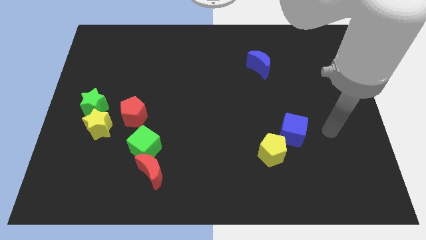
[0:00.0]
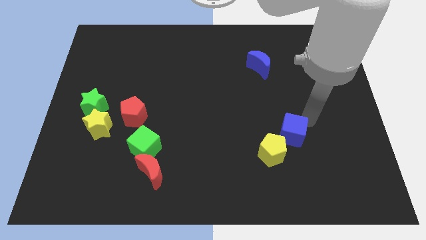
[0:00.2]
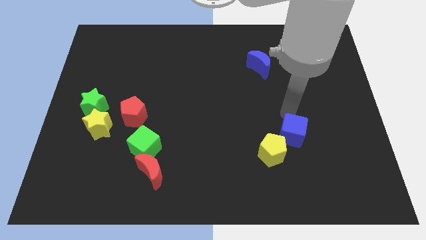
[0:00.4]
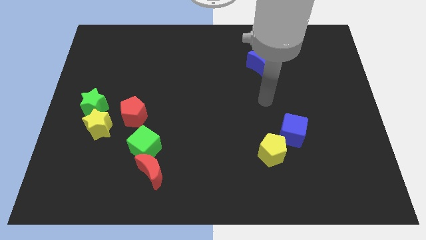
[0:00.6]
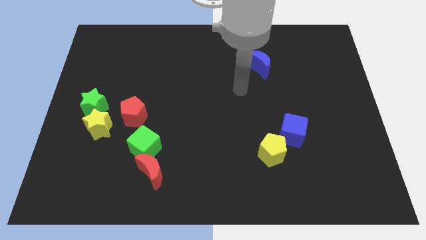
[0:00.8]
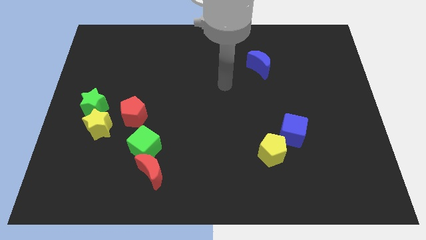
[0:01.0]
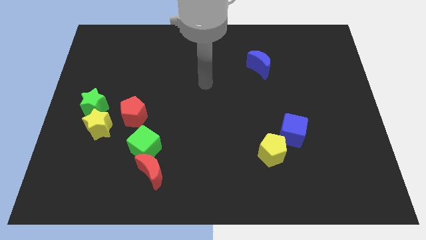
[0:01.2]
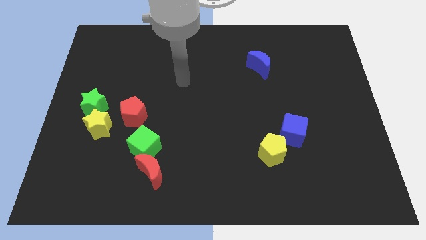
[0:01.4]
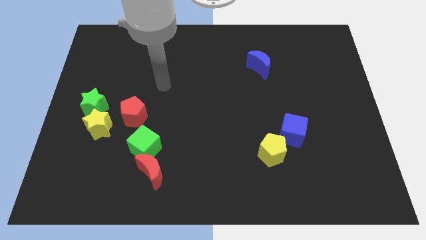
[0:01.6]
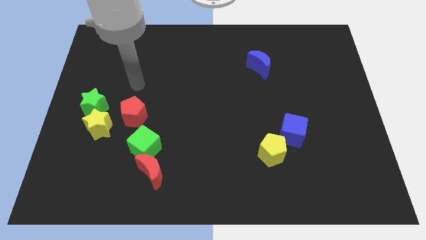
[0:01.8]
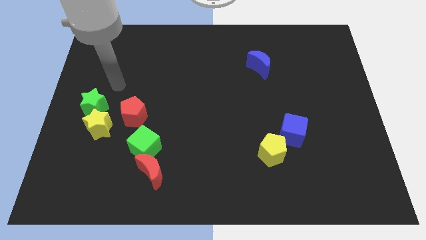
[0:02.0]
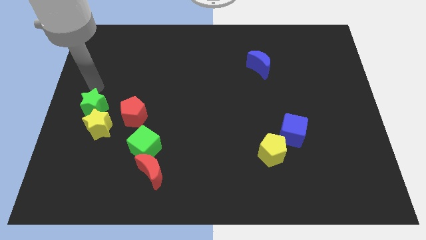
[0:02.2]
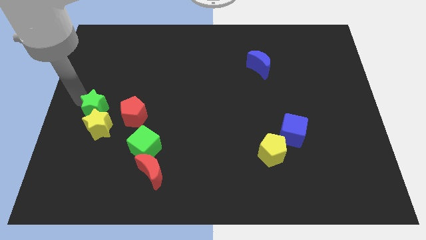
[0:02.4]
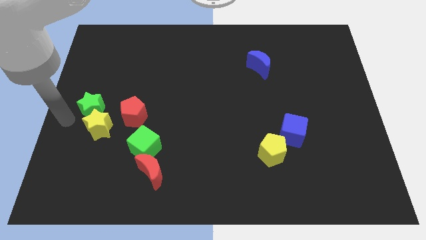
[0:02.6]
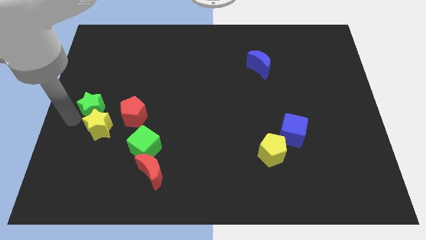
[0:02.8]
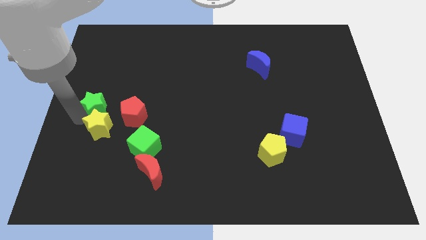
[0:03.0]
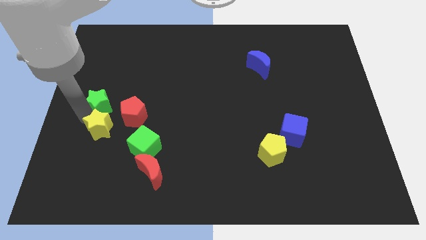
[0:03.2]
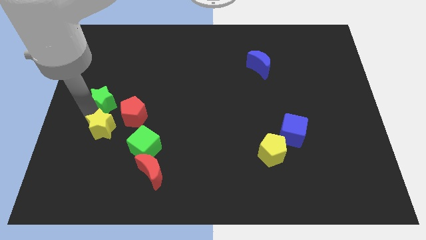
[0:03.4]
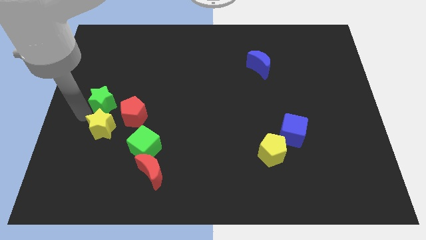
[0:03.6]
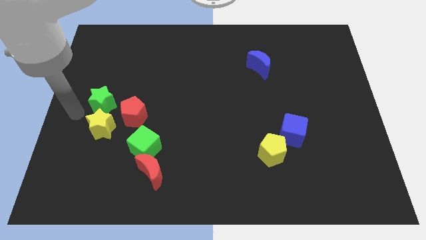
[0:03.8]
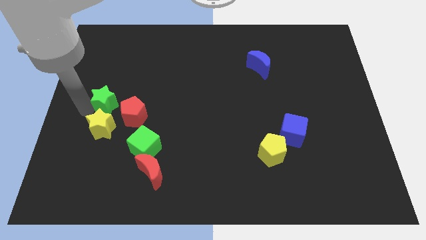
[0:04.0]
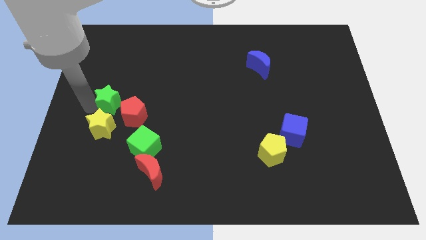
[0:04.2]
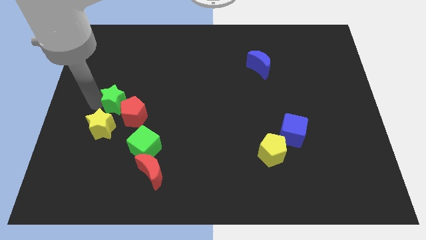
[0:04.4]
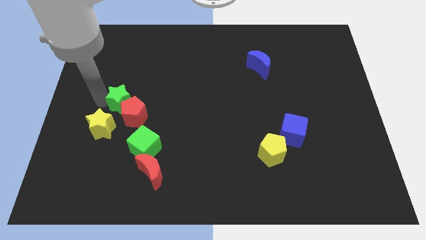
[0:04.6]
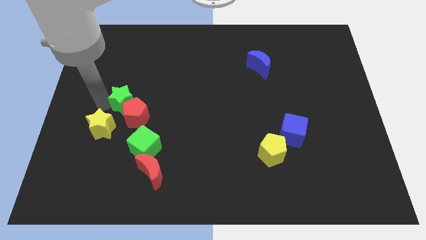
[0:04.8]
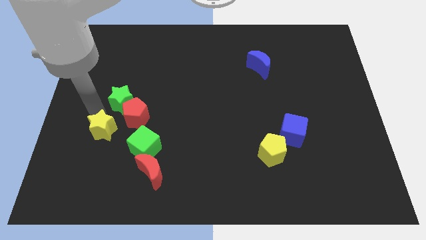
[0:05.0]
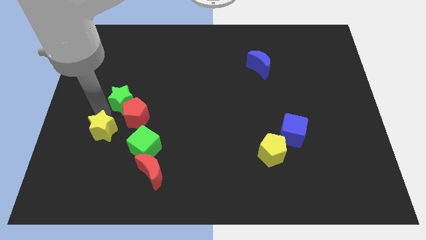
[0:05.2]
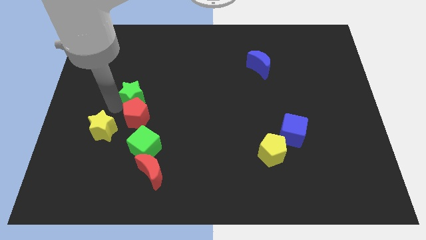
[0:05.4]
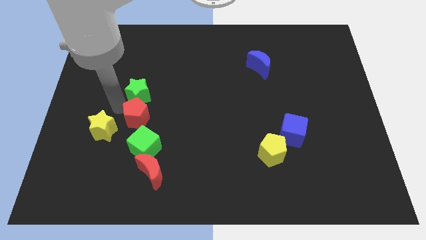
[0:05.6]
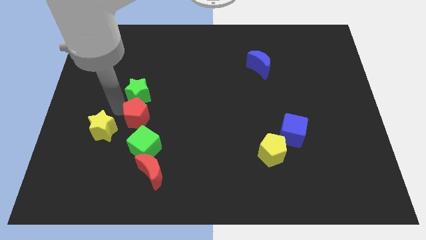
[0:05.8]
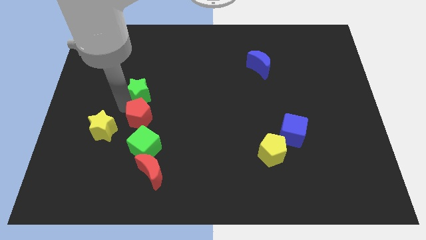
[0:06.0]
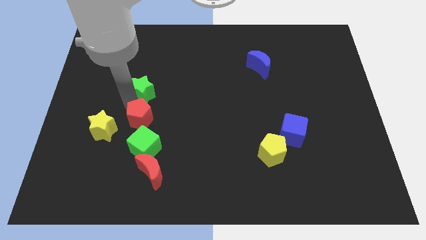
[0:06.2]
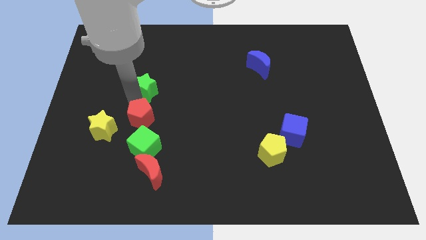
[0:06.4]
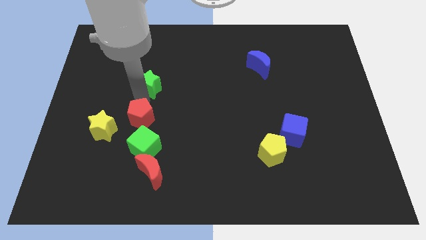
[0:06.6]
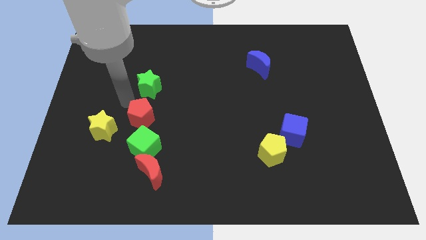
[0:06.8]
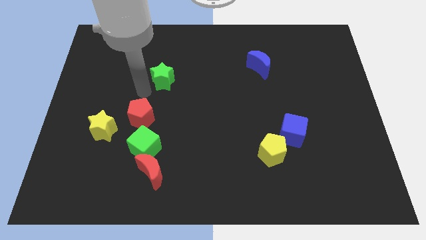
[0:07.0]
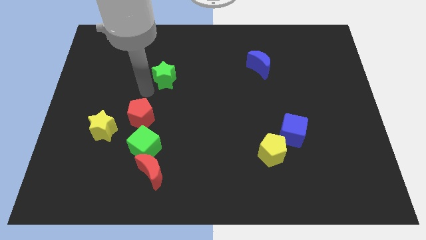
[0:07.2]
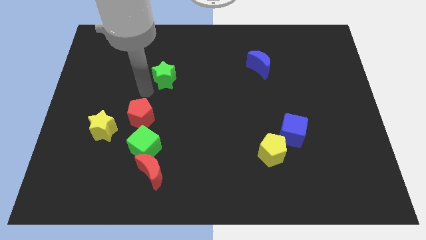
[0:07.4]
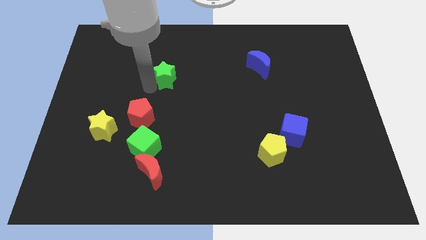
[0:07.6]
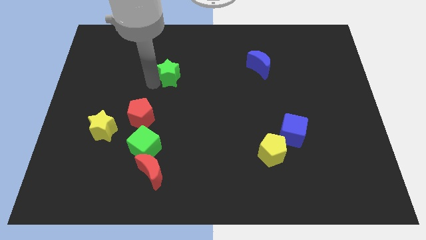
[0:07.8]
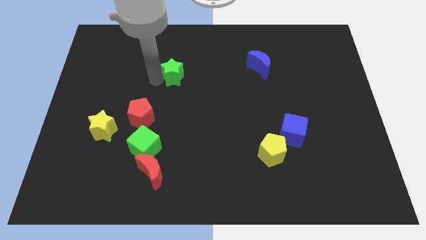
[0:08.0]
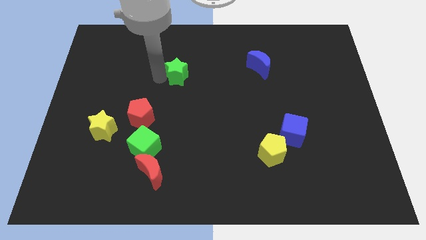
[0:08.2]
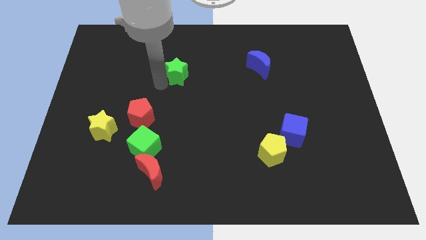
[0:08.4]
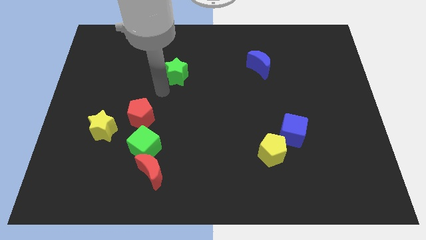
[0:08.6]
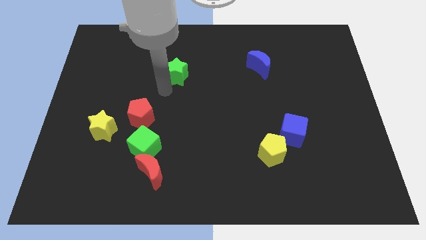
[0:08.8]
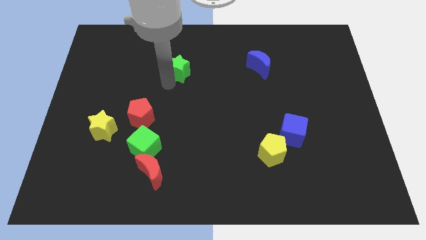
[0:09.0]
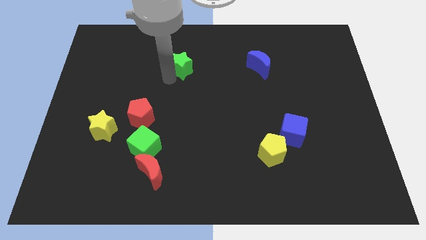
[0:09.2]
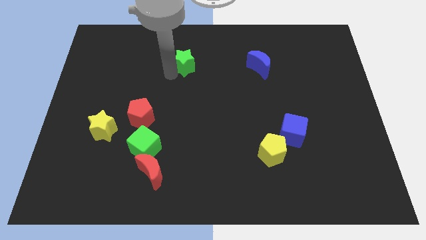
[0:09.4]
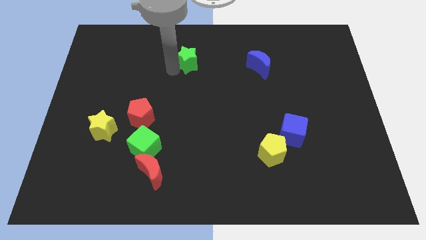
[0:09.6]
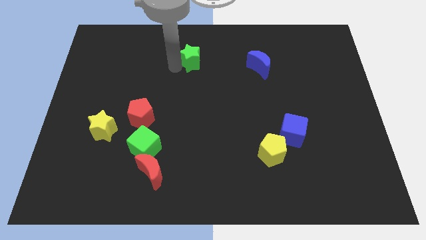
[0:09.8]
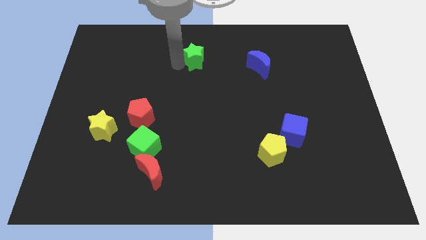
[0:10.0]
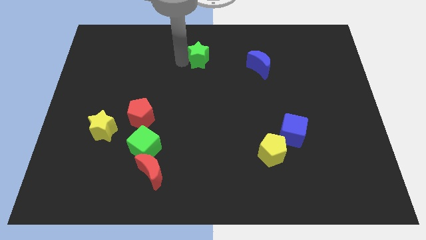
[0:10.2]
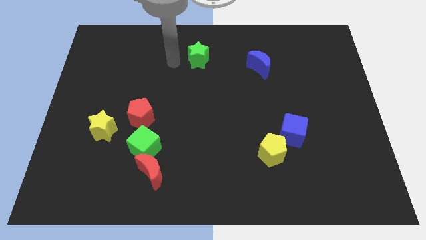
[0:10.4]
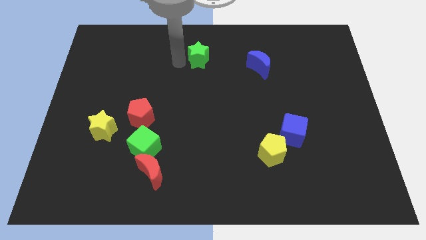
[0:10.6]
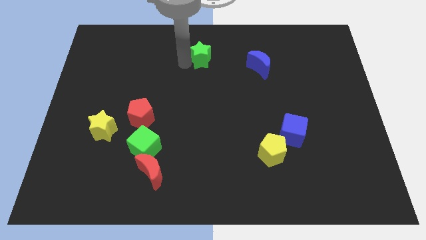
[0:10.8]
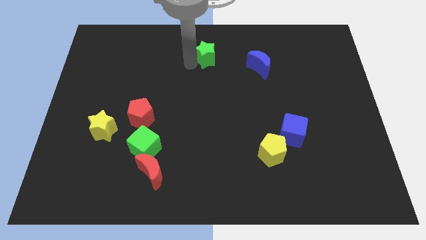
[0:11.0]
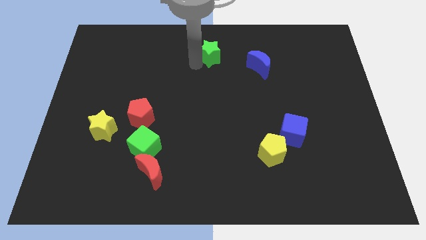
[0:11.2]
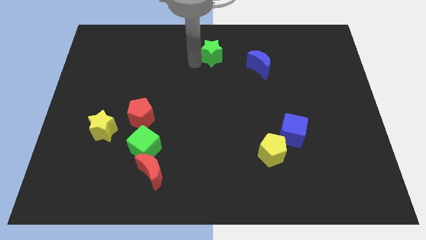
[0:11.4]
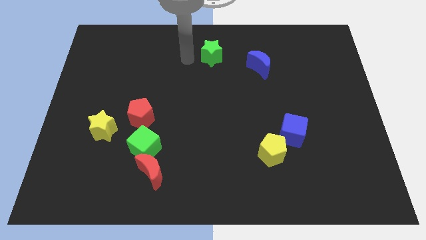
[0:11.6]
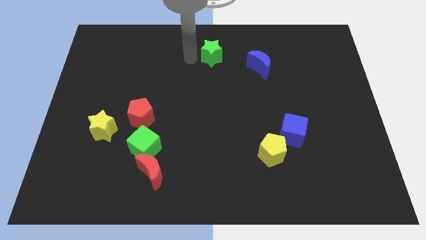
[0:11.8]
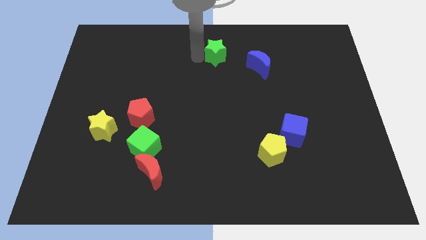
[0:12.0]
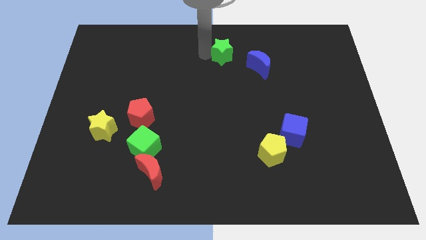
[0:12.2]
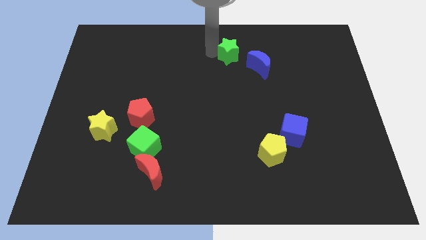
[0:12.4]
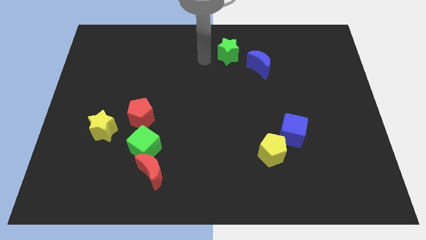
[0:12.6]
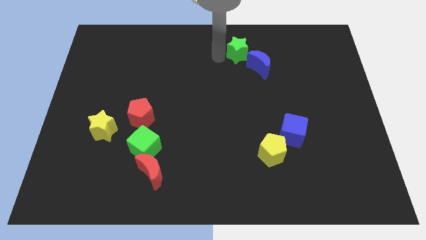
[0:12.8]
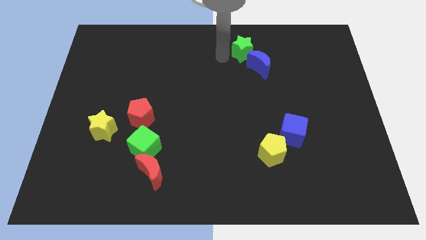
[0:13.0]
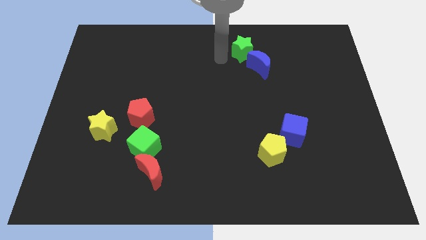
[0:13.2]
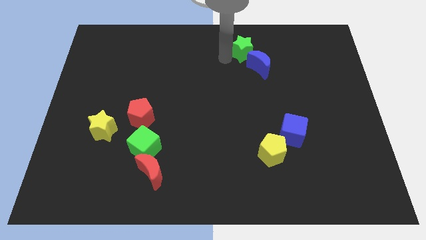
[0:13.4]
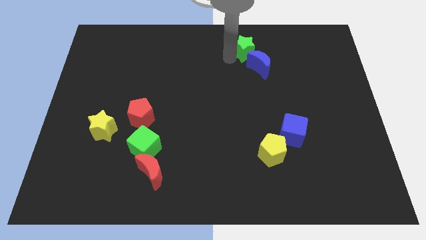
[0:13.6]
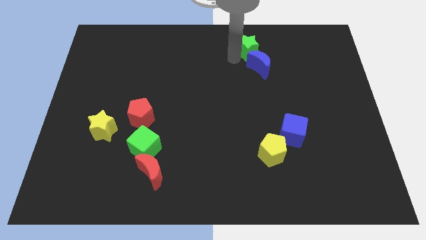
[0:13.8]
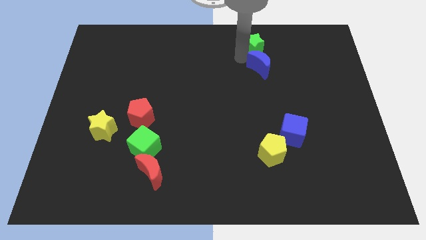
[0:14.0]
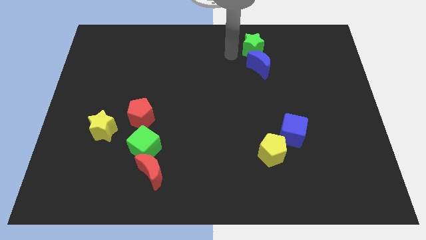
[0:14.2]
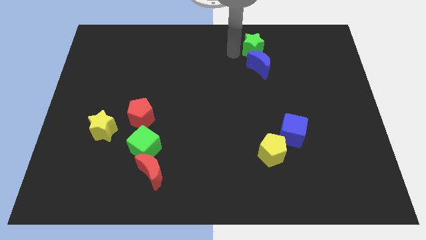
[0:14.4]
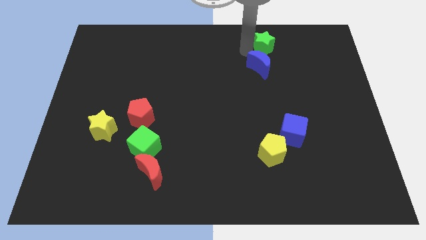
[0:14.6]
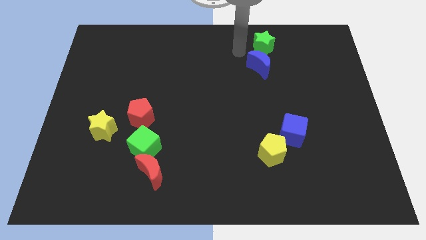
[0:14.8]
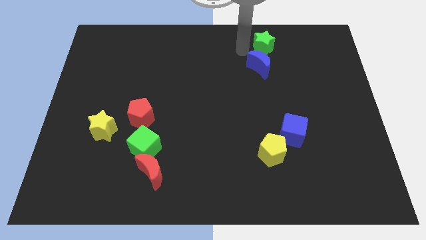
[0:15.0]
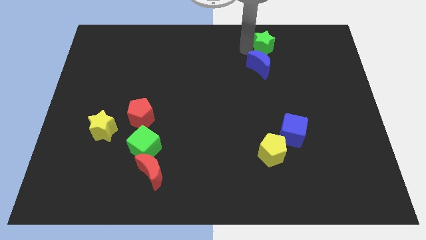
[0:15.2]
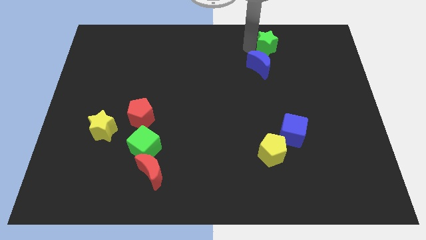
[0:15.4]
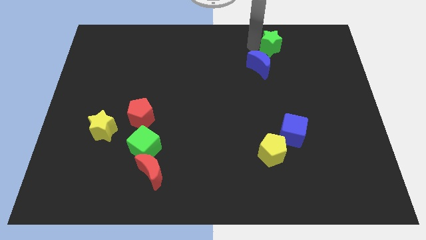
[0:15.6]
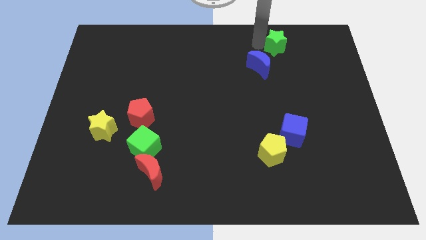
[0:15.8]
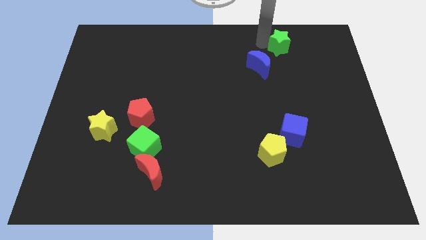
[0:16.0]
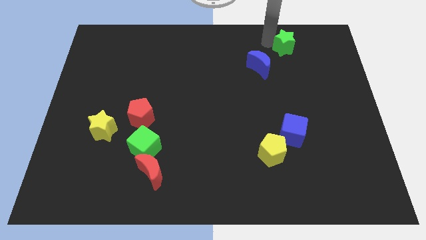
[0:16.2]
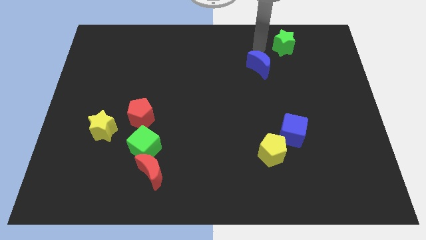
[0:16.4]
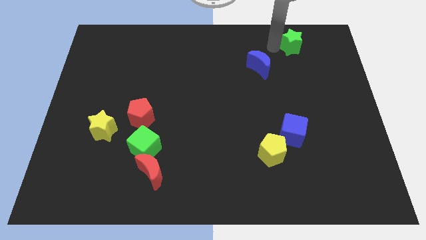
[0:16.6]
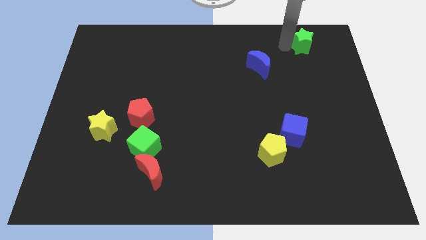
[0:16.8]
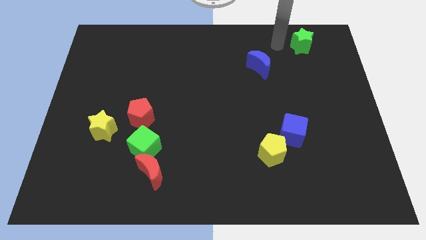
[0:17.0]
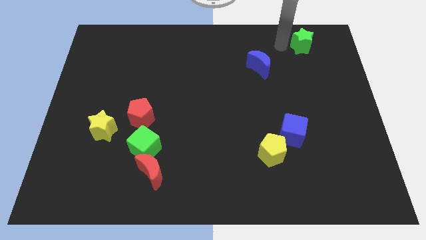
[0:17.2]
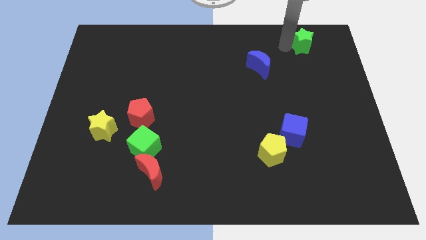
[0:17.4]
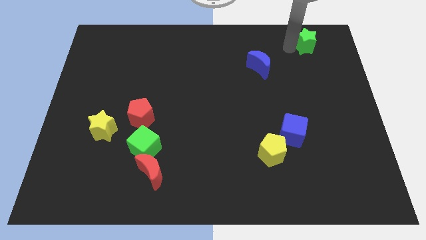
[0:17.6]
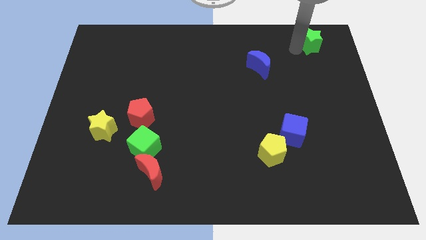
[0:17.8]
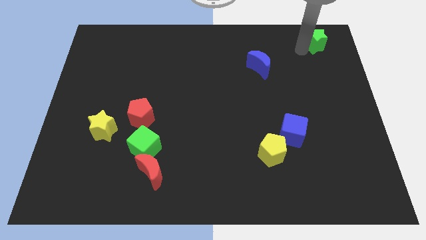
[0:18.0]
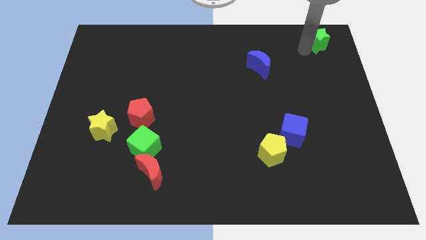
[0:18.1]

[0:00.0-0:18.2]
put the green star to the upper right corner
